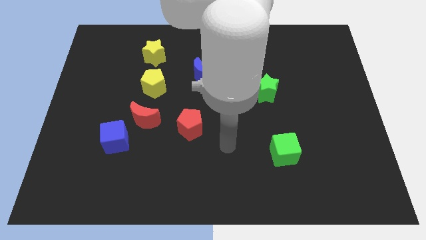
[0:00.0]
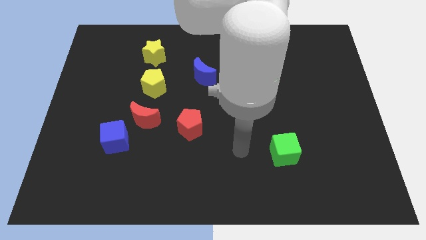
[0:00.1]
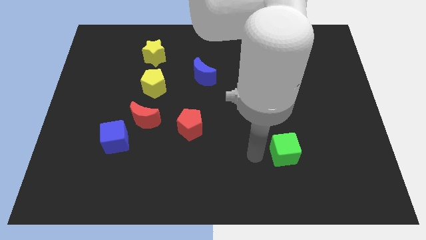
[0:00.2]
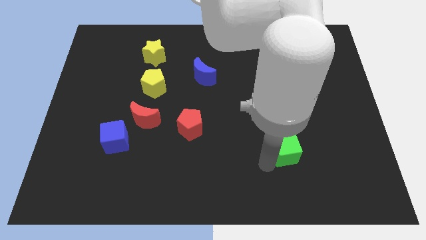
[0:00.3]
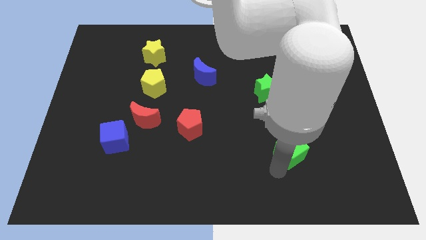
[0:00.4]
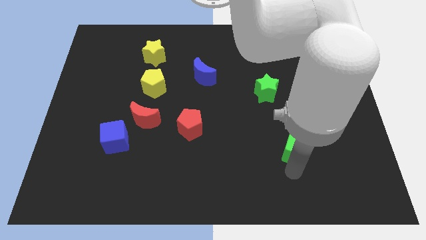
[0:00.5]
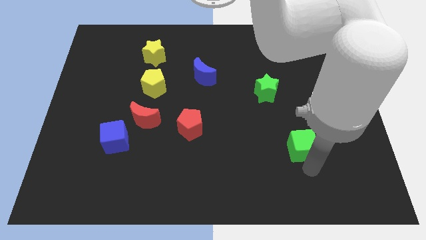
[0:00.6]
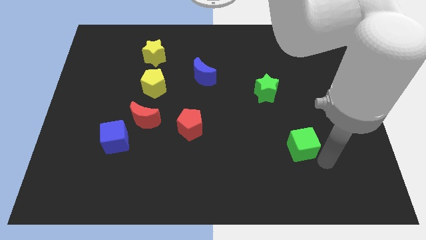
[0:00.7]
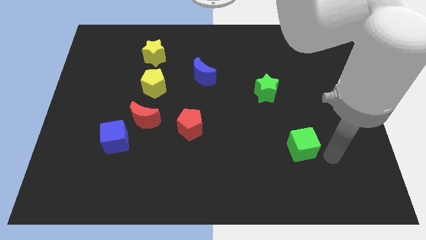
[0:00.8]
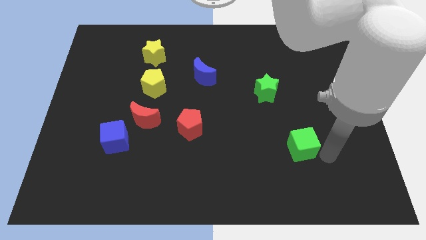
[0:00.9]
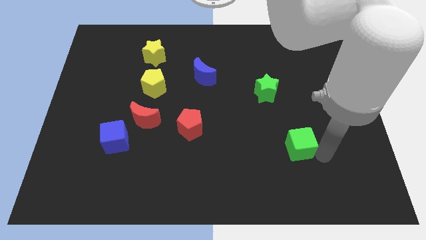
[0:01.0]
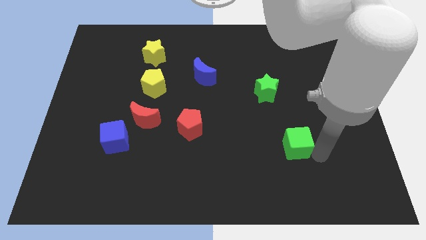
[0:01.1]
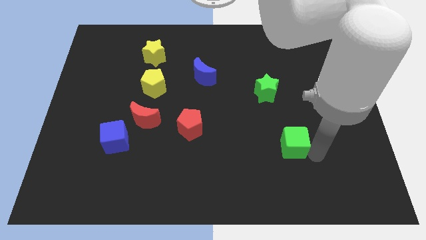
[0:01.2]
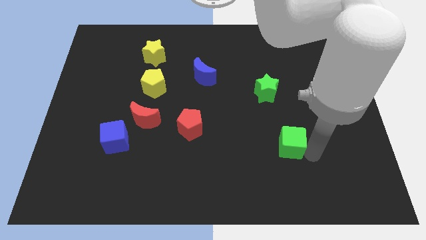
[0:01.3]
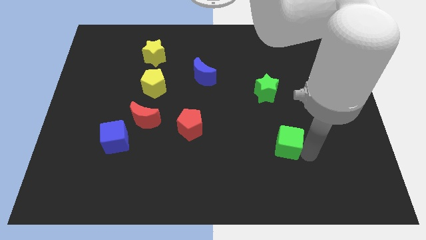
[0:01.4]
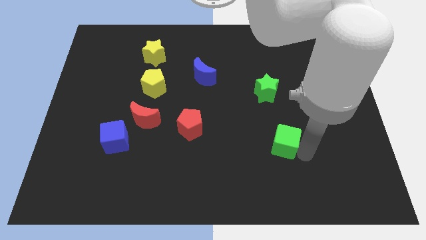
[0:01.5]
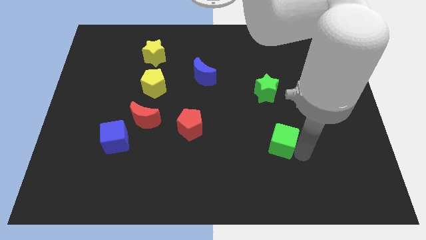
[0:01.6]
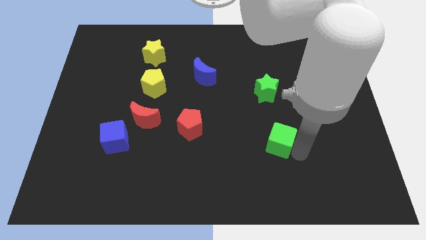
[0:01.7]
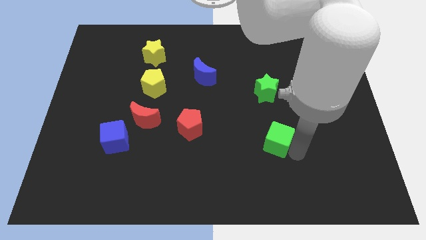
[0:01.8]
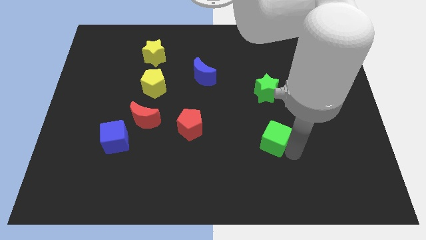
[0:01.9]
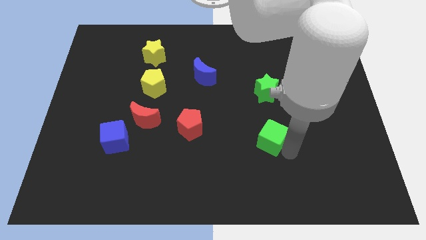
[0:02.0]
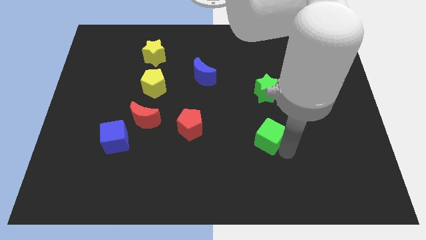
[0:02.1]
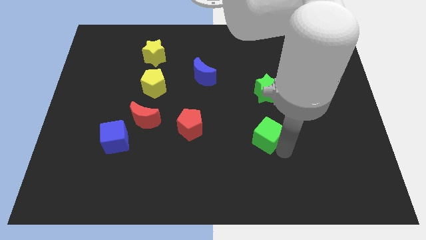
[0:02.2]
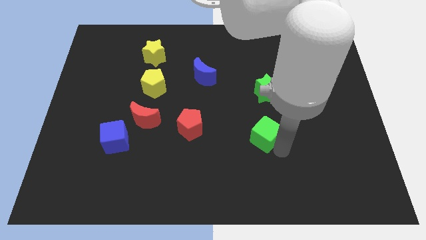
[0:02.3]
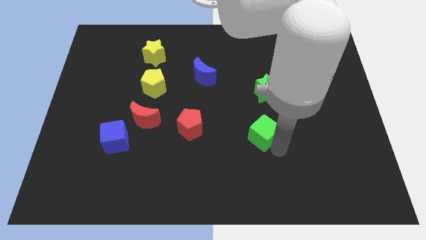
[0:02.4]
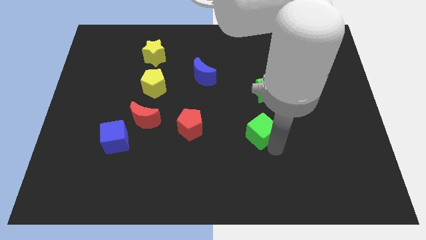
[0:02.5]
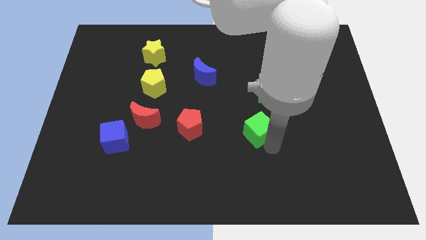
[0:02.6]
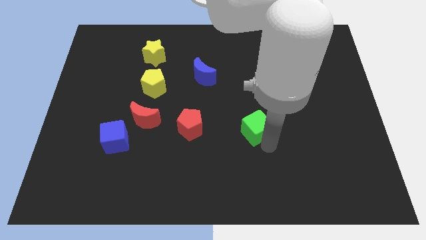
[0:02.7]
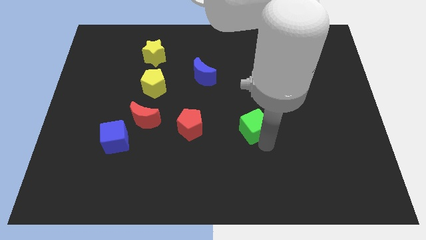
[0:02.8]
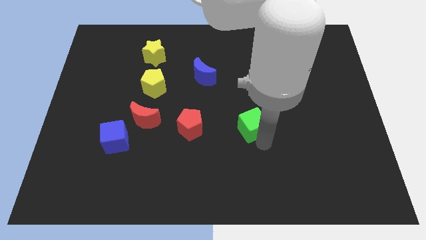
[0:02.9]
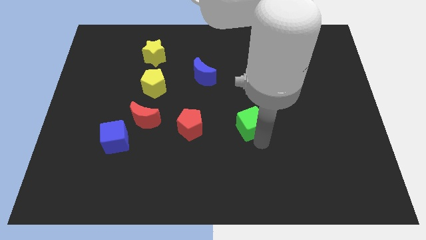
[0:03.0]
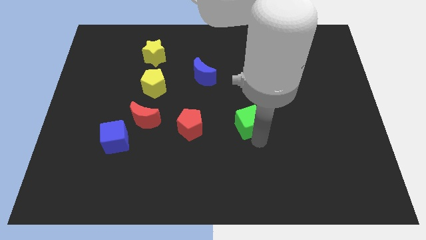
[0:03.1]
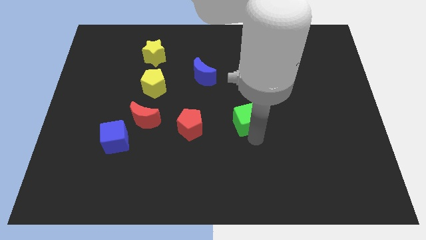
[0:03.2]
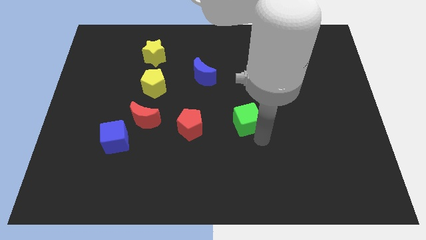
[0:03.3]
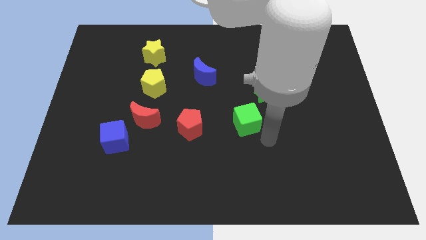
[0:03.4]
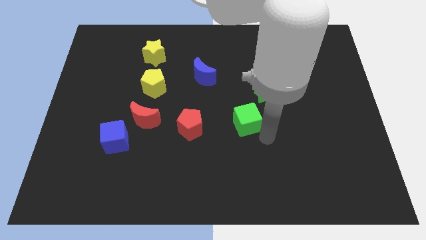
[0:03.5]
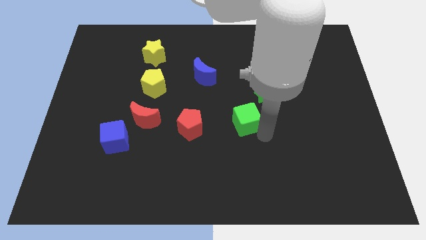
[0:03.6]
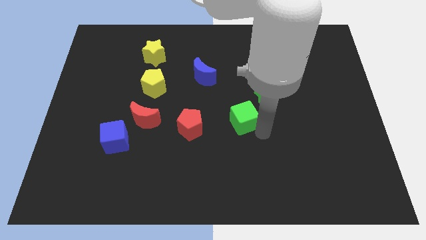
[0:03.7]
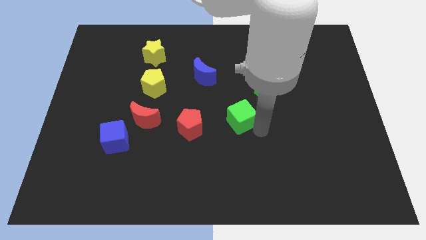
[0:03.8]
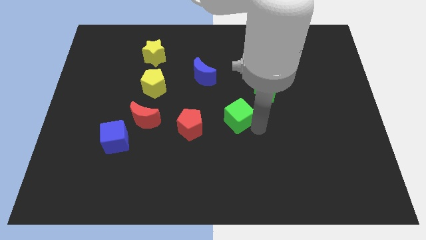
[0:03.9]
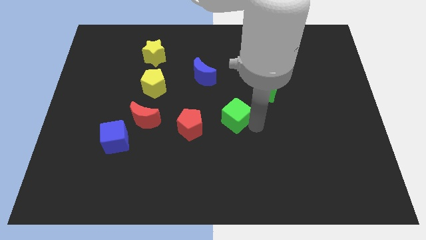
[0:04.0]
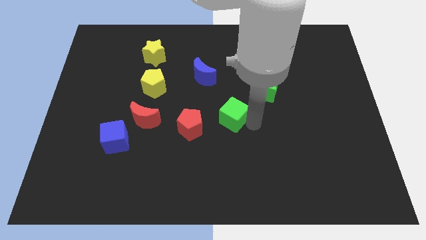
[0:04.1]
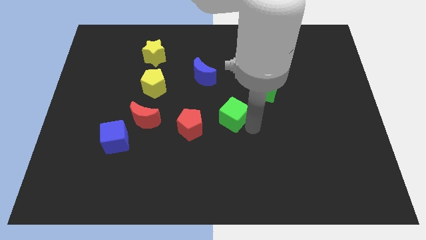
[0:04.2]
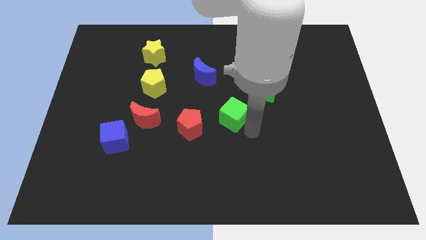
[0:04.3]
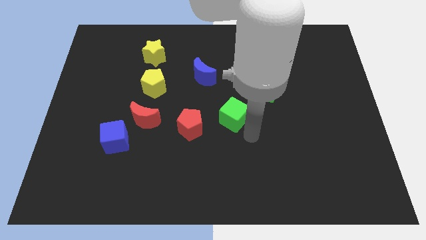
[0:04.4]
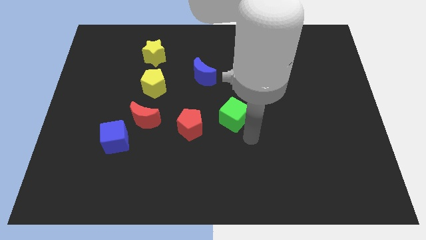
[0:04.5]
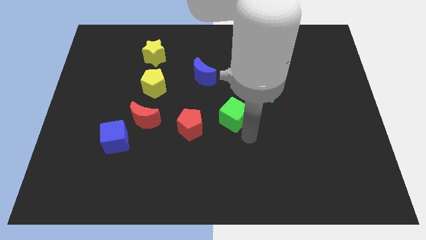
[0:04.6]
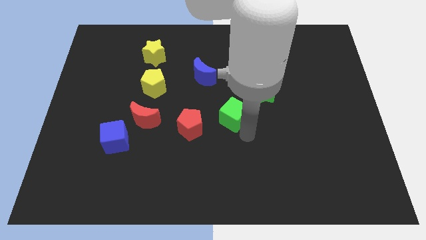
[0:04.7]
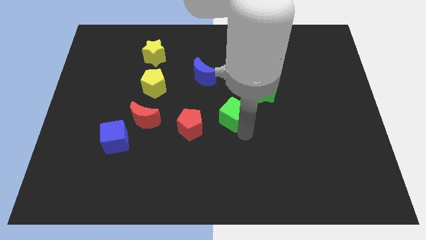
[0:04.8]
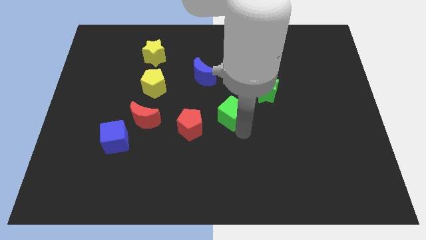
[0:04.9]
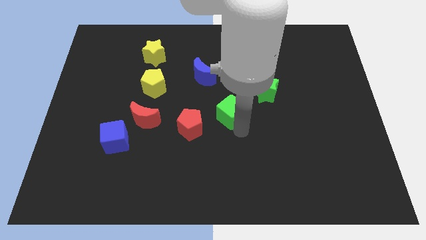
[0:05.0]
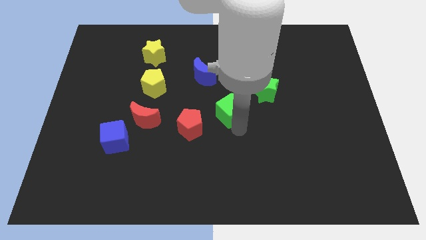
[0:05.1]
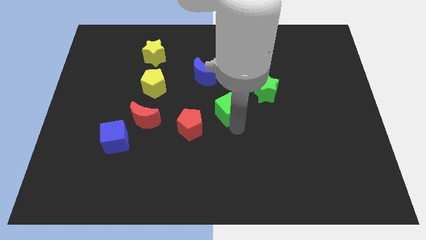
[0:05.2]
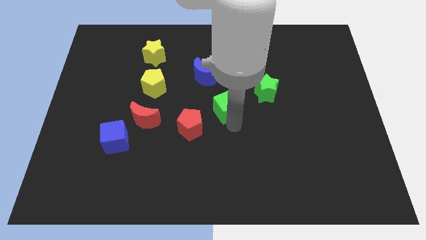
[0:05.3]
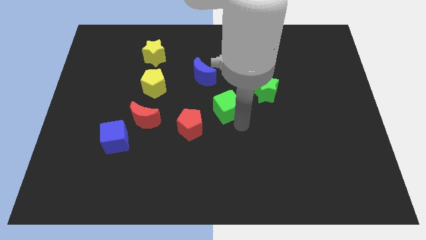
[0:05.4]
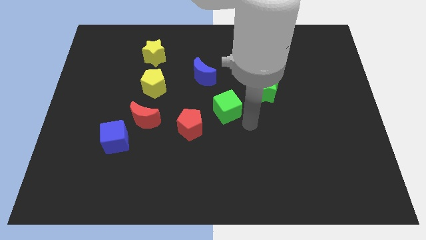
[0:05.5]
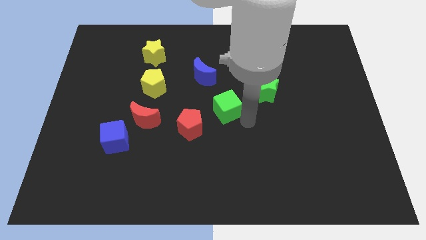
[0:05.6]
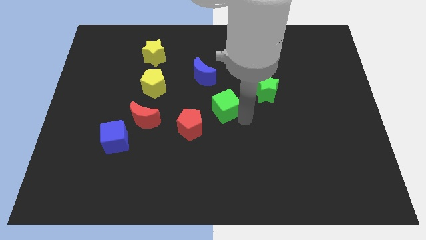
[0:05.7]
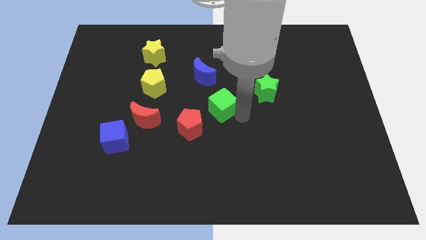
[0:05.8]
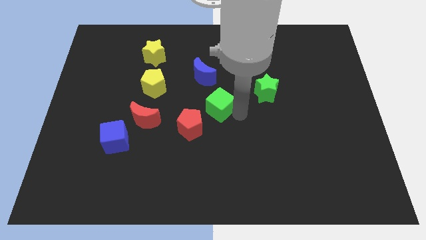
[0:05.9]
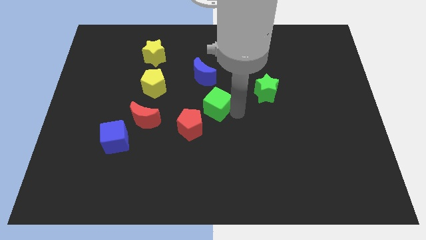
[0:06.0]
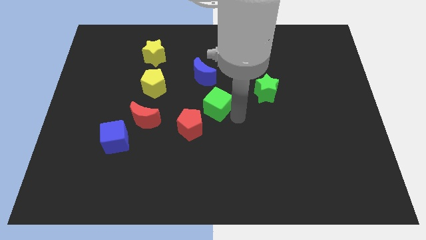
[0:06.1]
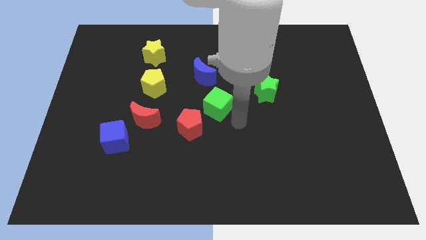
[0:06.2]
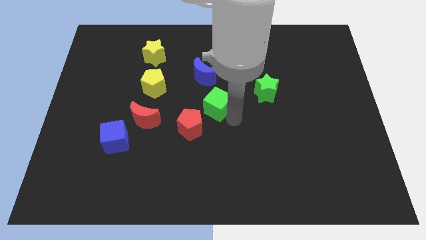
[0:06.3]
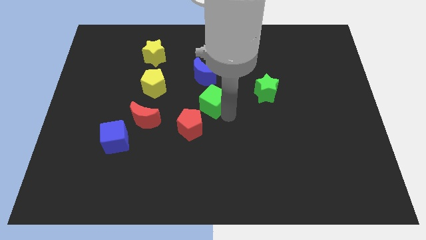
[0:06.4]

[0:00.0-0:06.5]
move the green cube up and then to the left

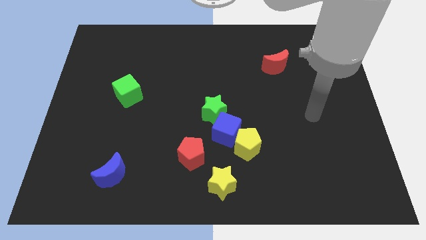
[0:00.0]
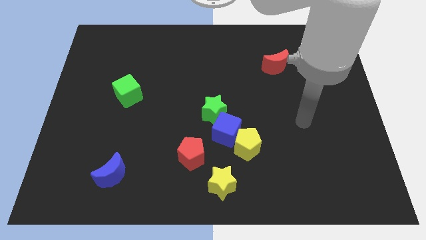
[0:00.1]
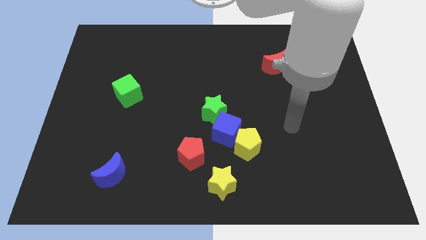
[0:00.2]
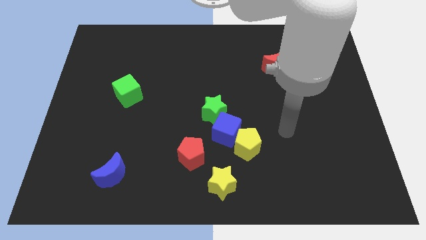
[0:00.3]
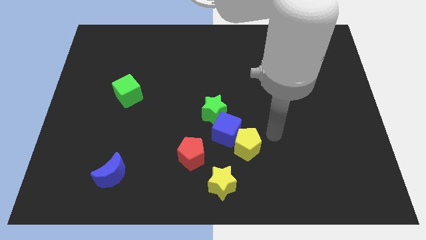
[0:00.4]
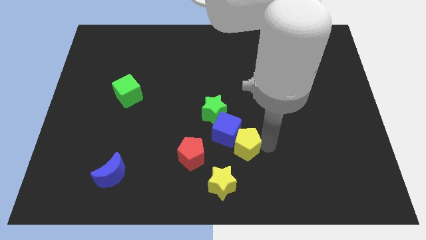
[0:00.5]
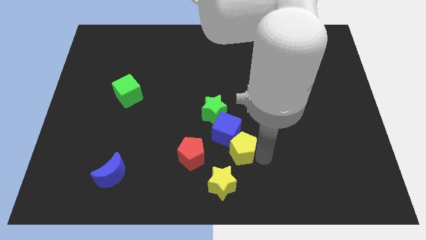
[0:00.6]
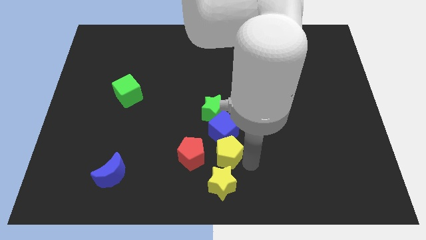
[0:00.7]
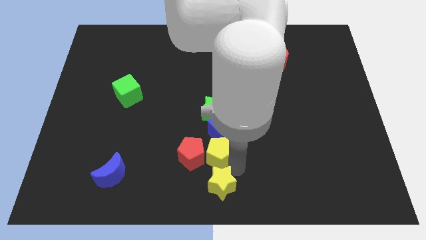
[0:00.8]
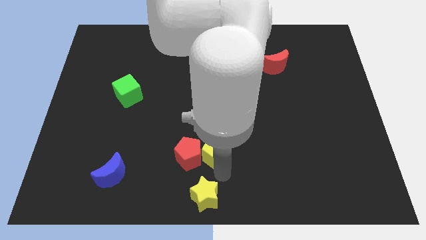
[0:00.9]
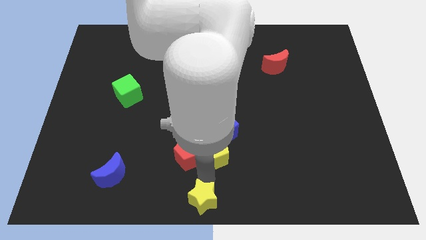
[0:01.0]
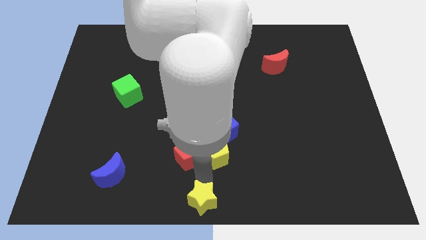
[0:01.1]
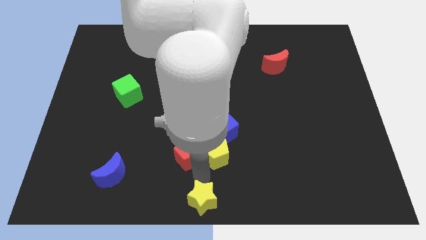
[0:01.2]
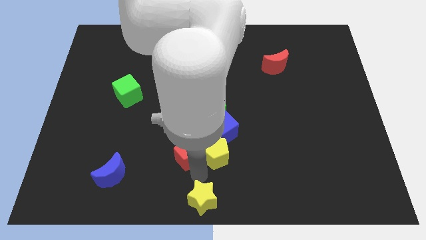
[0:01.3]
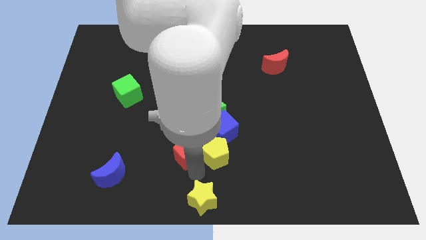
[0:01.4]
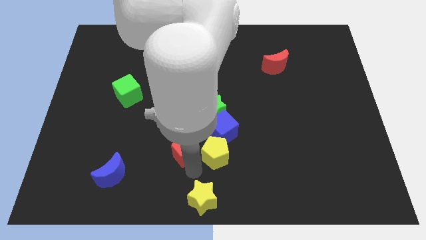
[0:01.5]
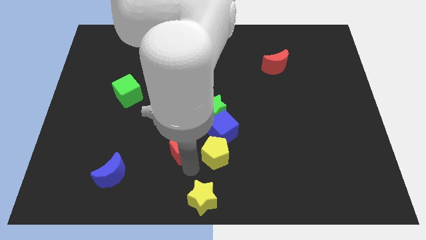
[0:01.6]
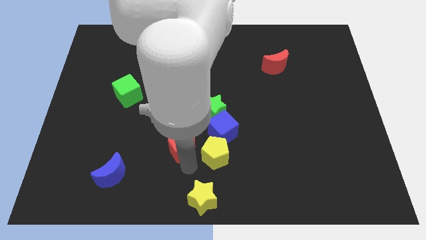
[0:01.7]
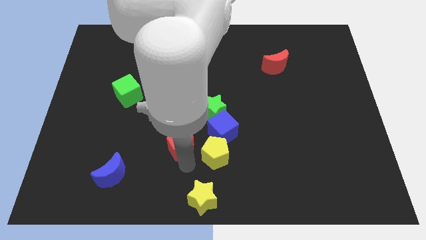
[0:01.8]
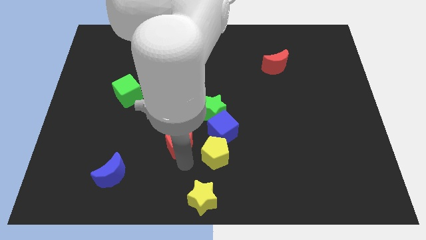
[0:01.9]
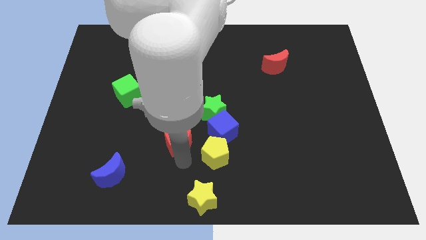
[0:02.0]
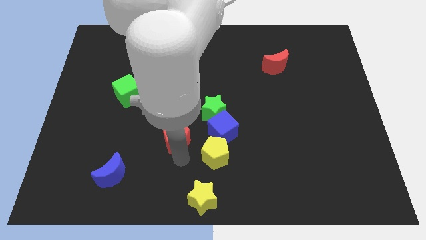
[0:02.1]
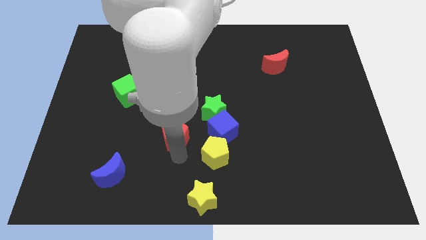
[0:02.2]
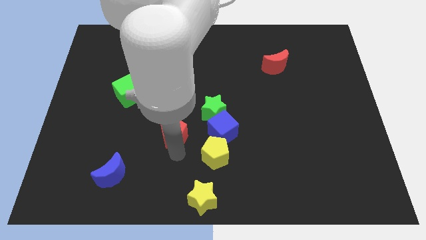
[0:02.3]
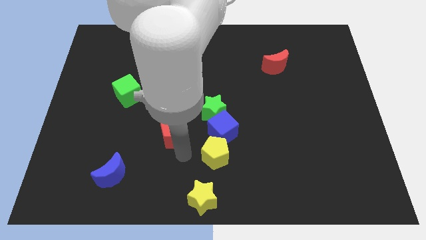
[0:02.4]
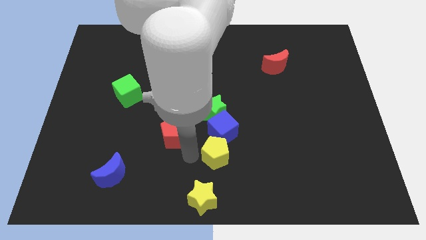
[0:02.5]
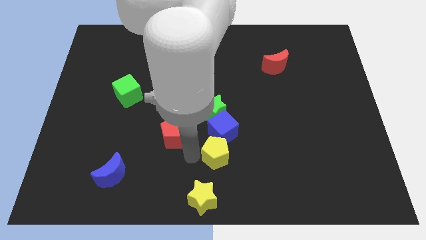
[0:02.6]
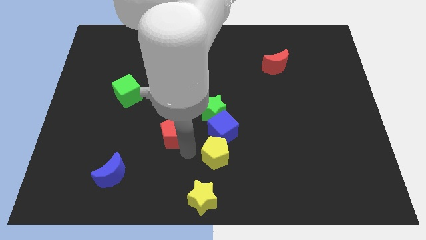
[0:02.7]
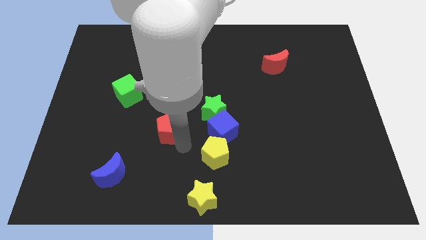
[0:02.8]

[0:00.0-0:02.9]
push the red pentagon a bit upwards and then left
